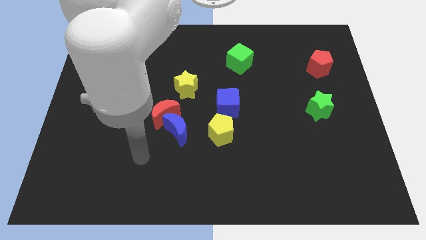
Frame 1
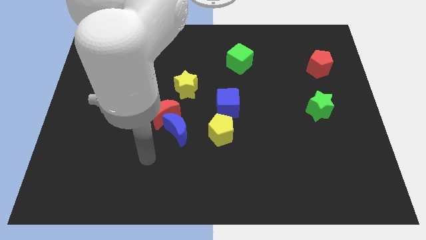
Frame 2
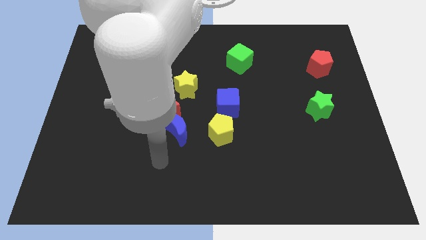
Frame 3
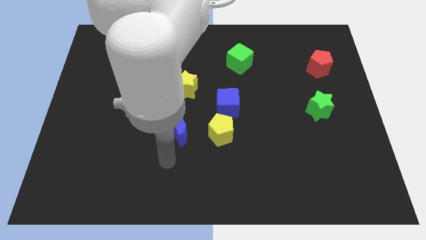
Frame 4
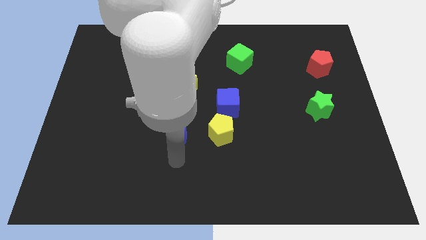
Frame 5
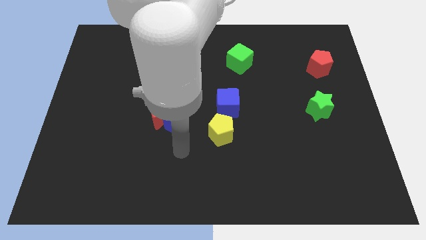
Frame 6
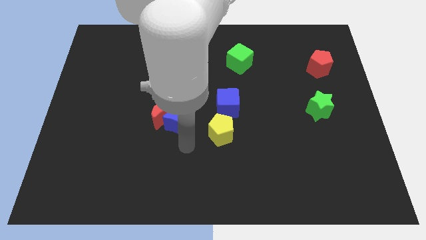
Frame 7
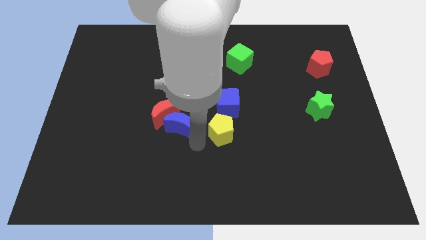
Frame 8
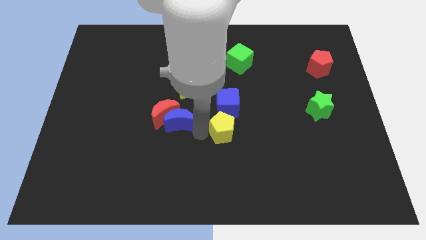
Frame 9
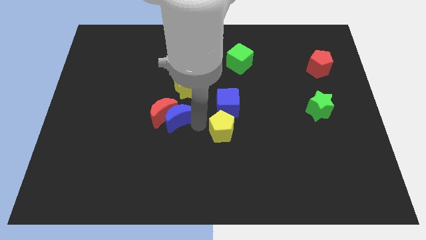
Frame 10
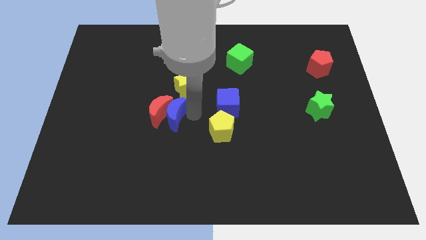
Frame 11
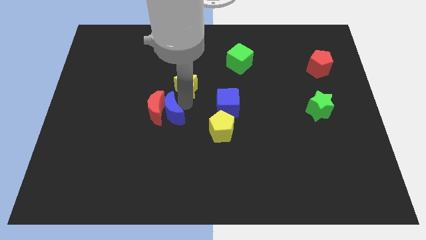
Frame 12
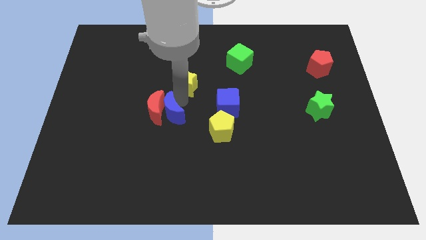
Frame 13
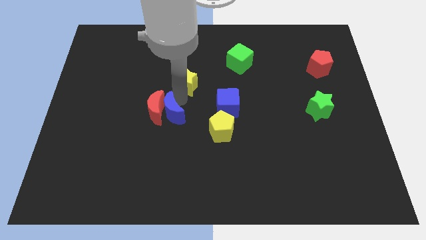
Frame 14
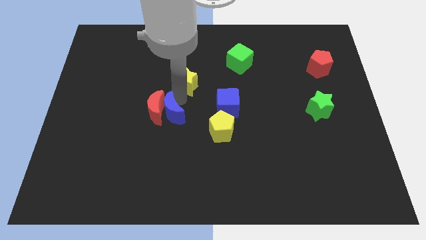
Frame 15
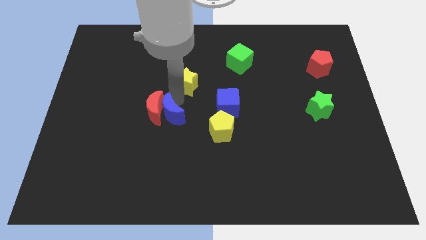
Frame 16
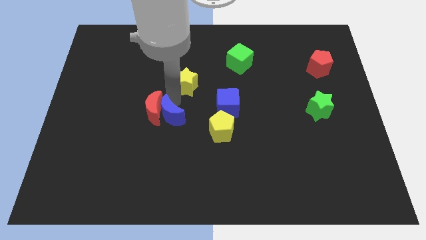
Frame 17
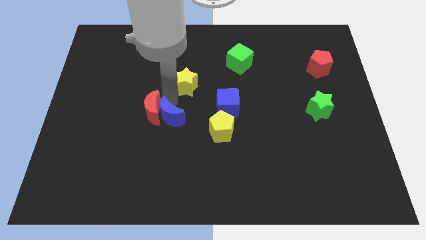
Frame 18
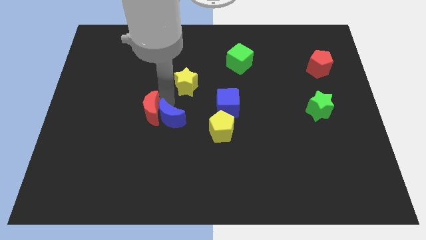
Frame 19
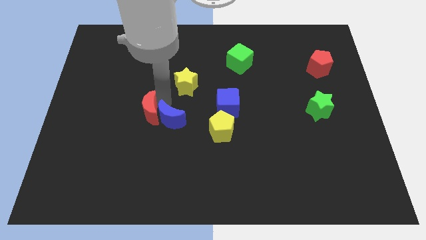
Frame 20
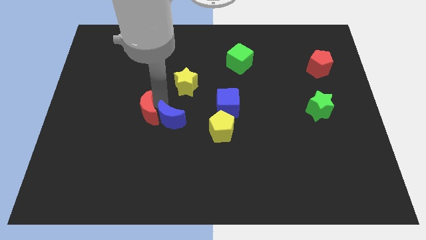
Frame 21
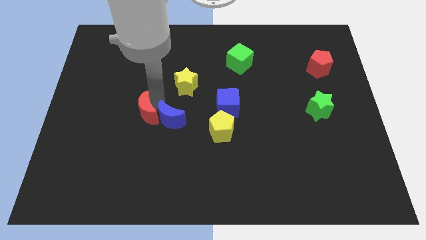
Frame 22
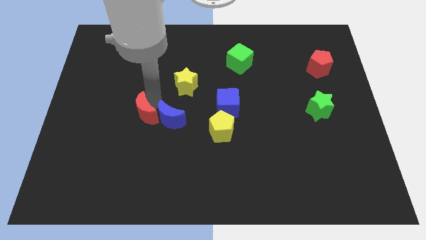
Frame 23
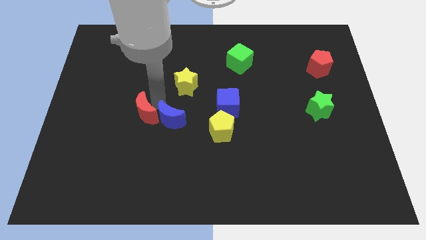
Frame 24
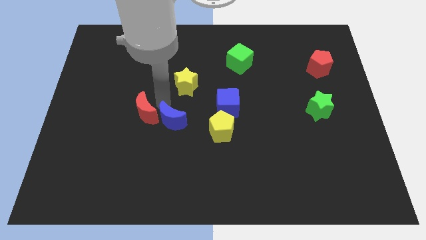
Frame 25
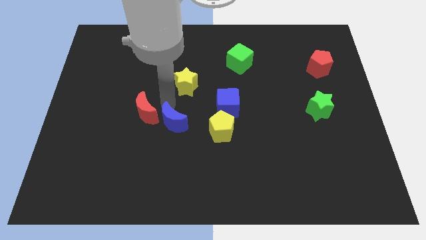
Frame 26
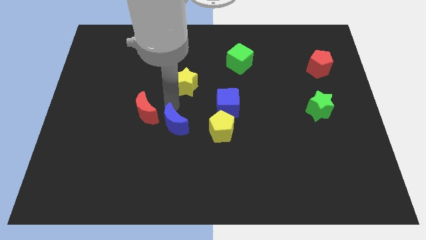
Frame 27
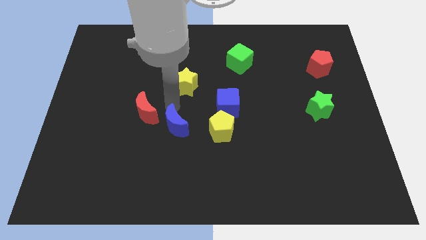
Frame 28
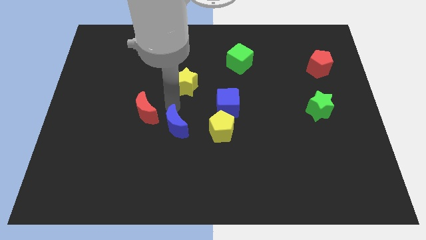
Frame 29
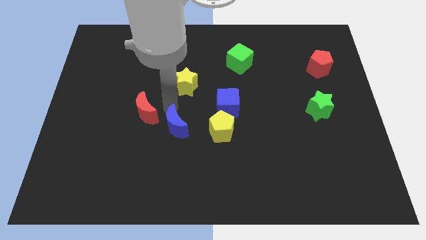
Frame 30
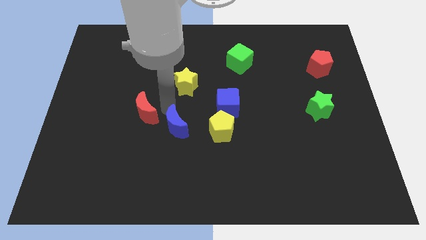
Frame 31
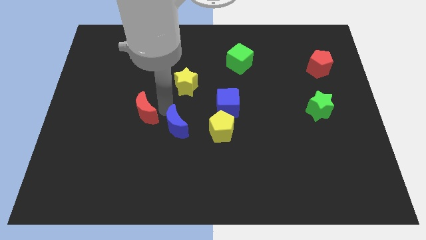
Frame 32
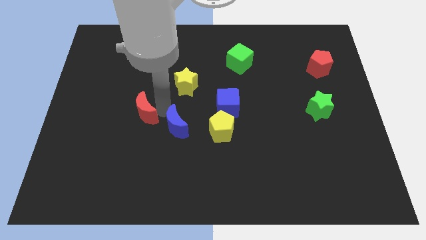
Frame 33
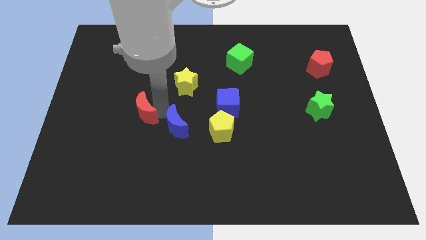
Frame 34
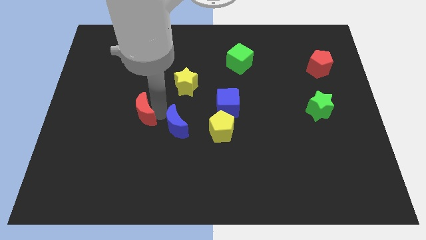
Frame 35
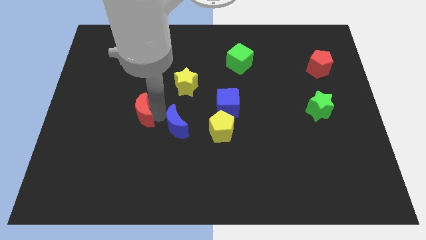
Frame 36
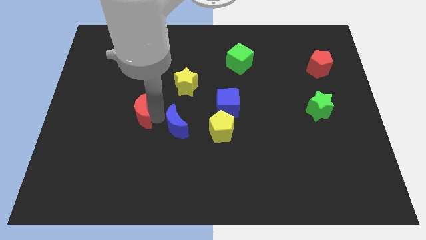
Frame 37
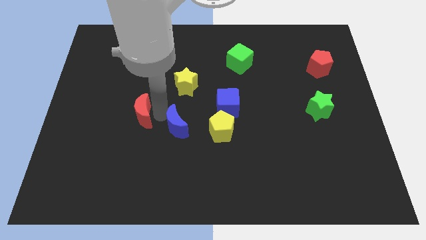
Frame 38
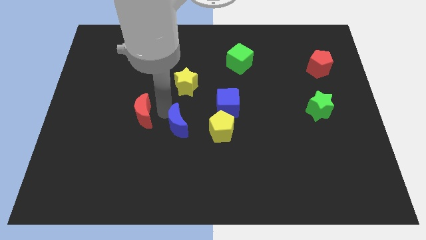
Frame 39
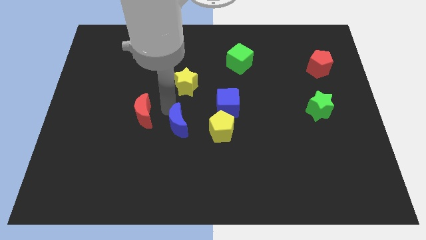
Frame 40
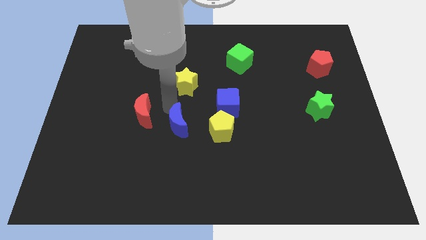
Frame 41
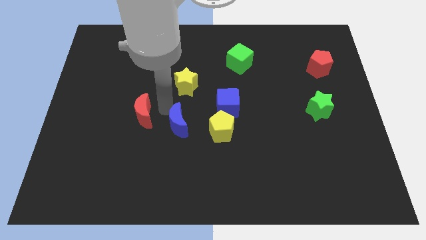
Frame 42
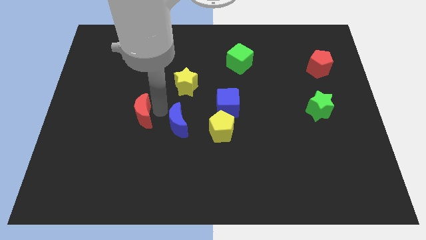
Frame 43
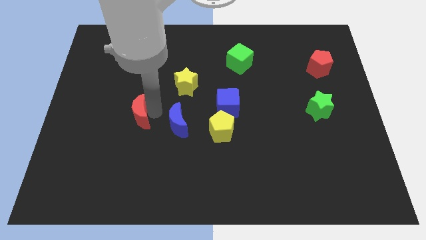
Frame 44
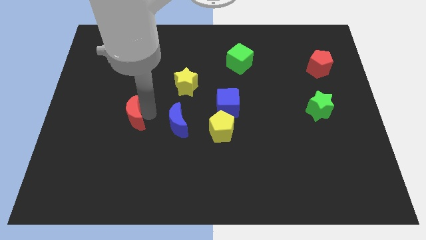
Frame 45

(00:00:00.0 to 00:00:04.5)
pull the red moon apart from the blue moon and yellow star

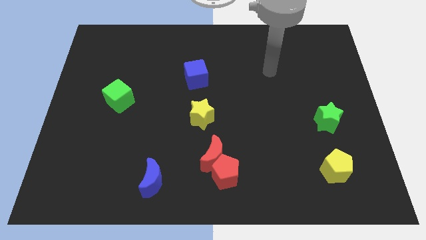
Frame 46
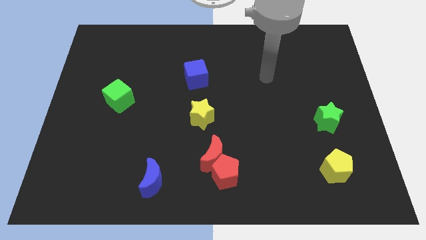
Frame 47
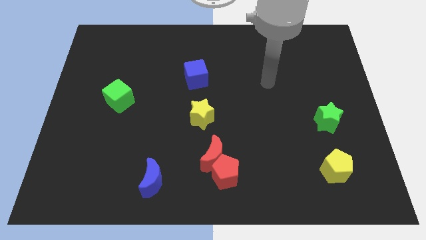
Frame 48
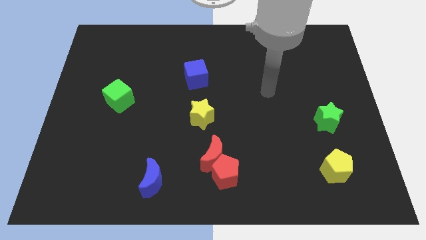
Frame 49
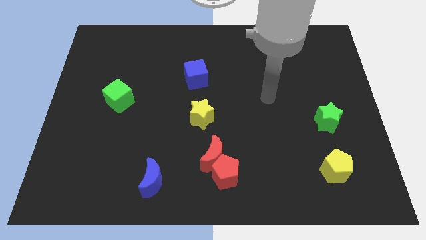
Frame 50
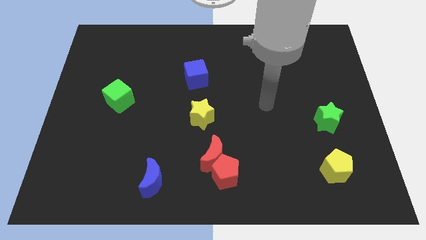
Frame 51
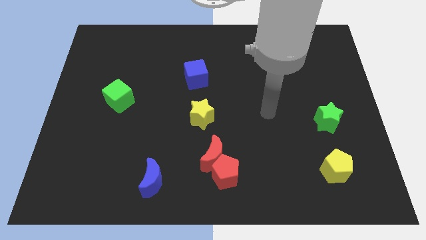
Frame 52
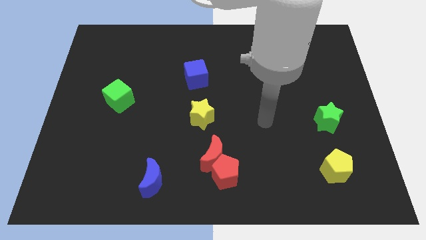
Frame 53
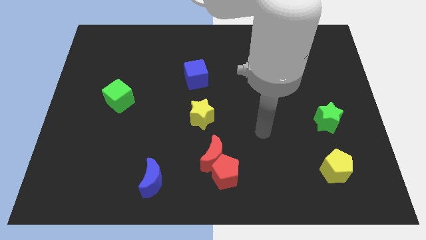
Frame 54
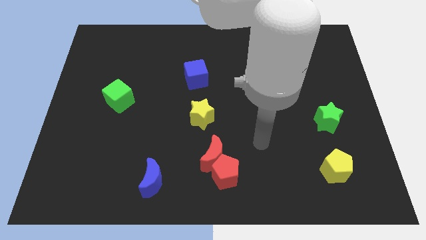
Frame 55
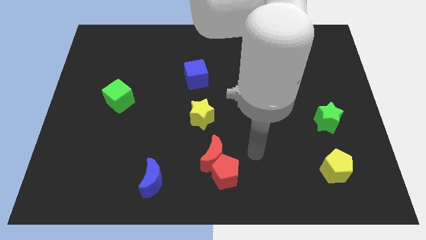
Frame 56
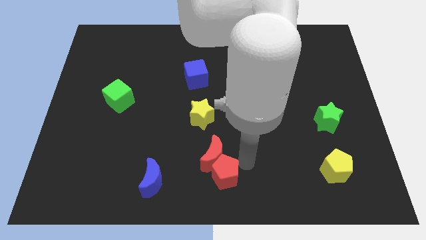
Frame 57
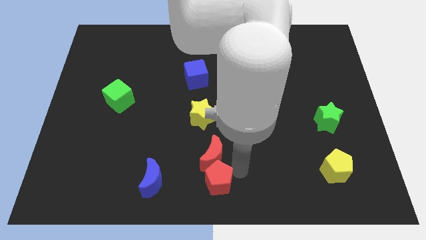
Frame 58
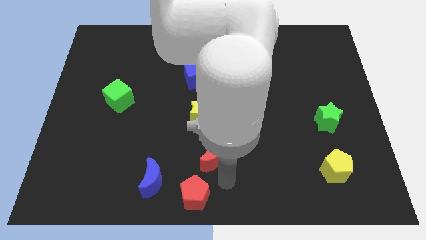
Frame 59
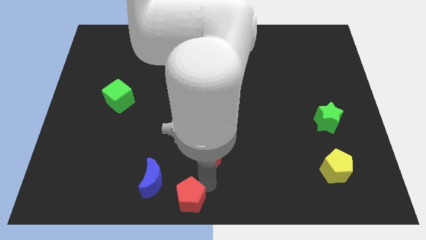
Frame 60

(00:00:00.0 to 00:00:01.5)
move the red moon away from the red pentagon

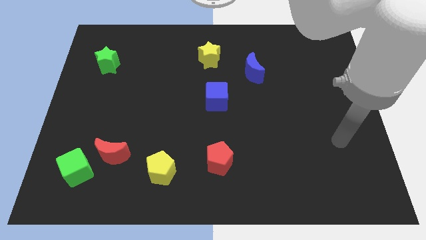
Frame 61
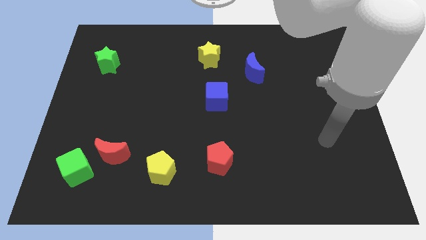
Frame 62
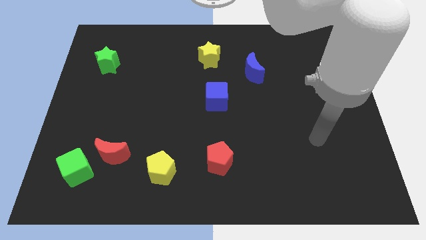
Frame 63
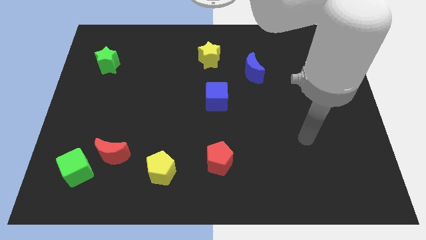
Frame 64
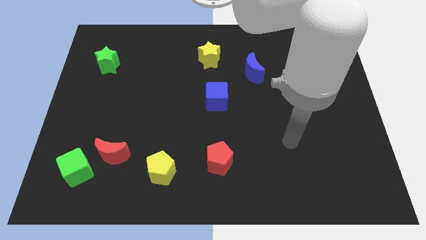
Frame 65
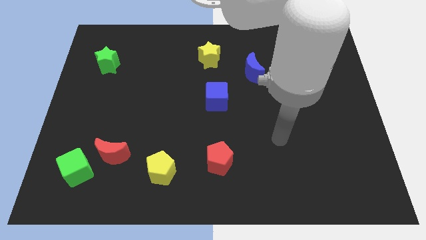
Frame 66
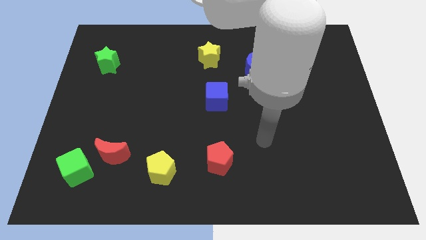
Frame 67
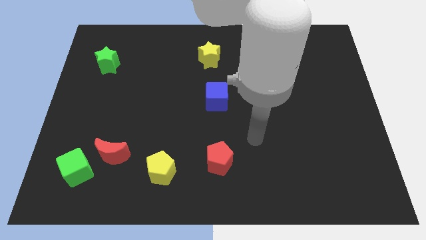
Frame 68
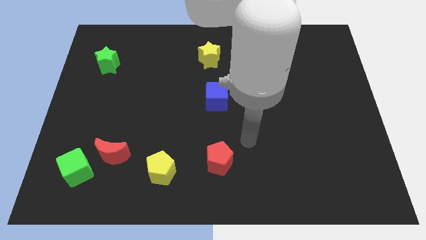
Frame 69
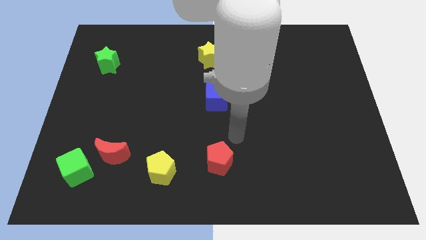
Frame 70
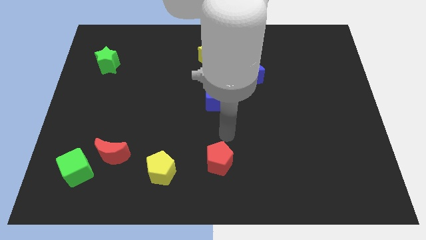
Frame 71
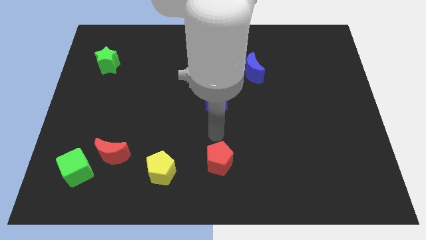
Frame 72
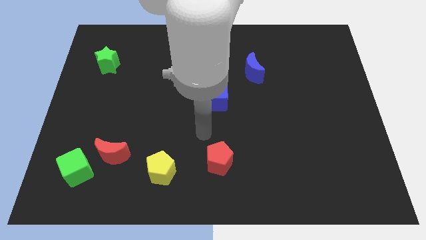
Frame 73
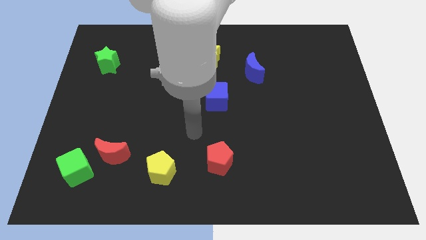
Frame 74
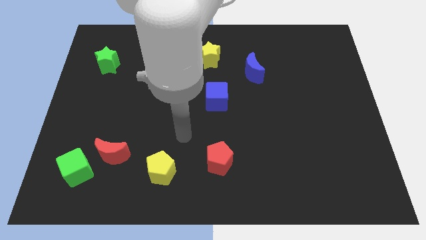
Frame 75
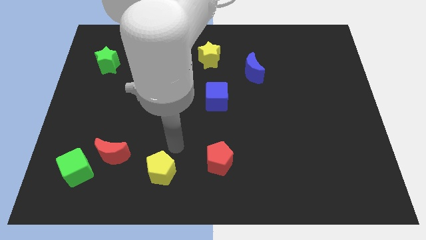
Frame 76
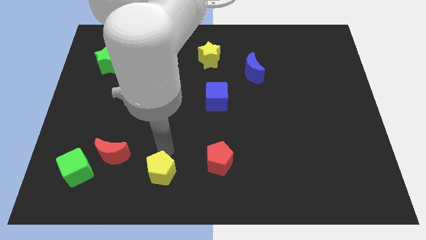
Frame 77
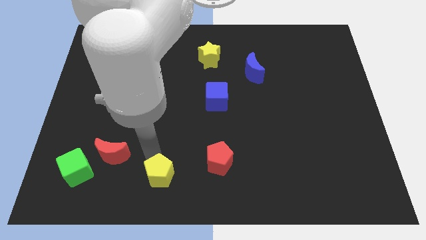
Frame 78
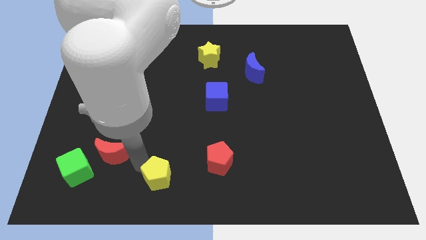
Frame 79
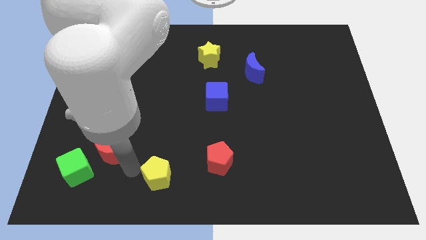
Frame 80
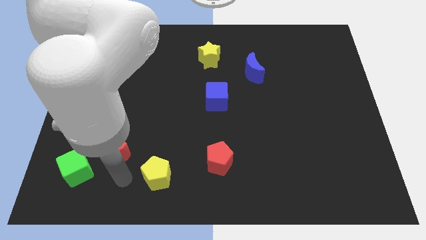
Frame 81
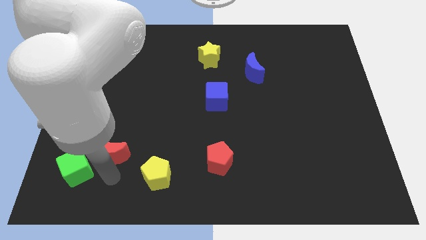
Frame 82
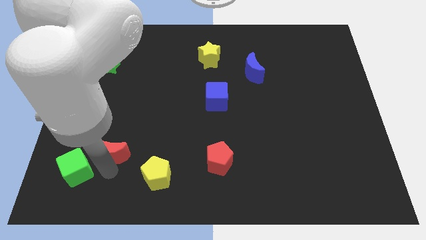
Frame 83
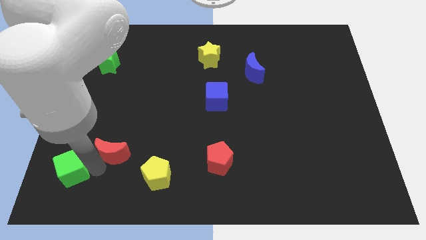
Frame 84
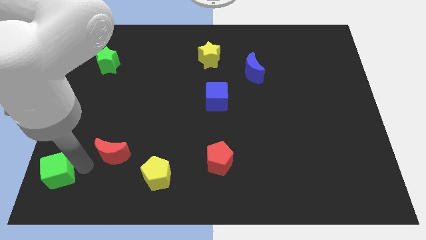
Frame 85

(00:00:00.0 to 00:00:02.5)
pull the red moon apart from the green cube

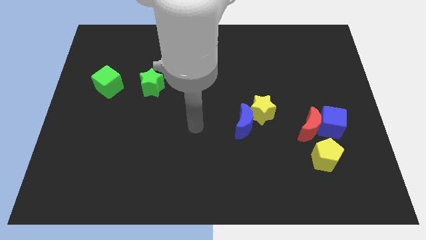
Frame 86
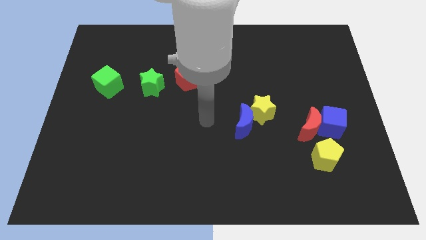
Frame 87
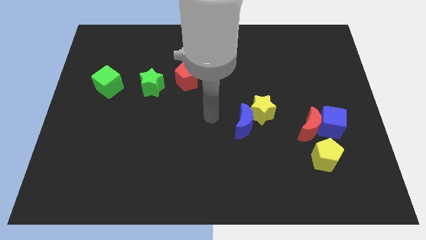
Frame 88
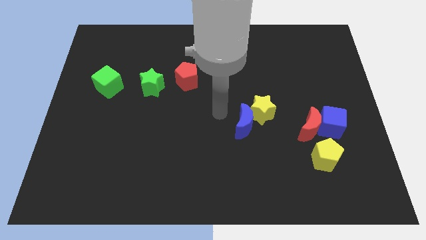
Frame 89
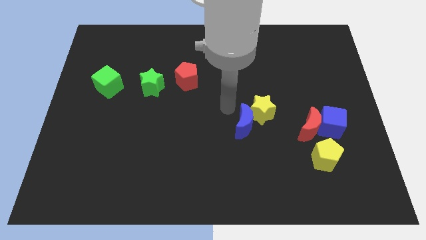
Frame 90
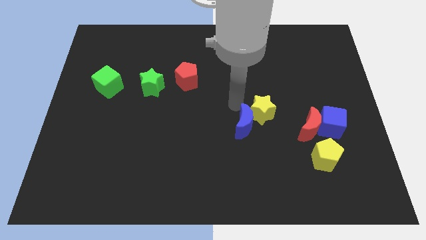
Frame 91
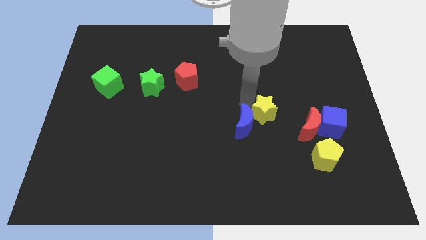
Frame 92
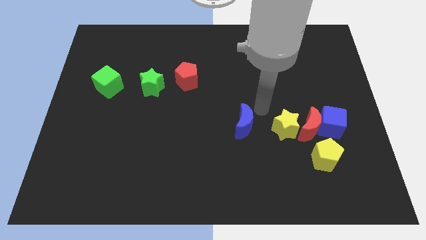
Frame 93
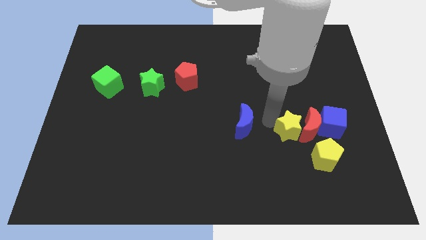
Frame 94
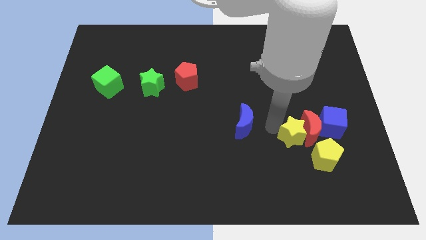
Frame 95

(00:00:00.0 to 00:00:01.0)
pull the blue moon apart from the yellow star
